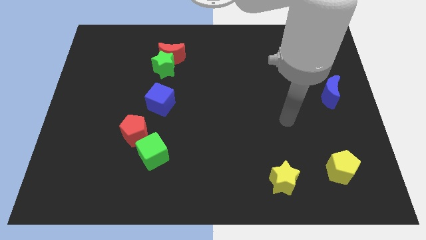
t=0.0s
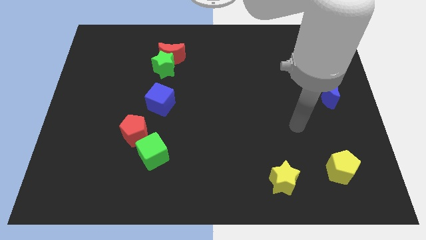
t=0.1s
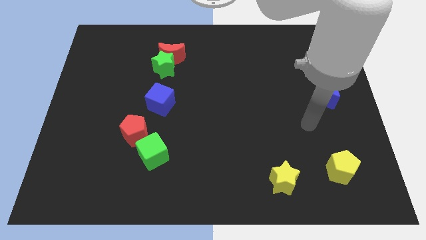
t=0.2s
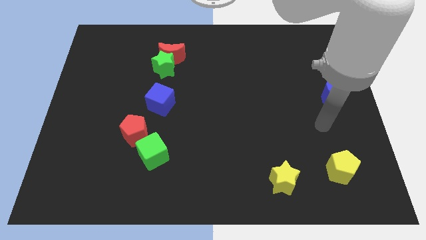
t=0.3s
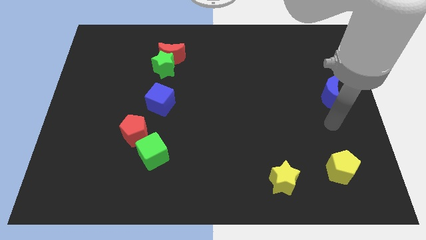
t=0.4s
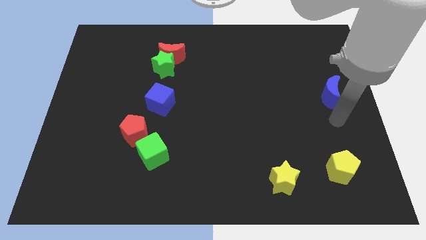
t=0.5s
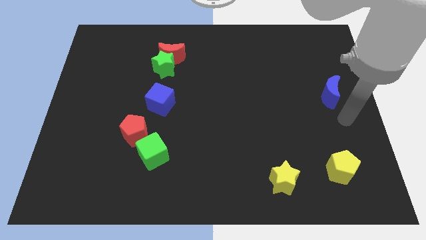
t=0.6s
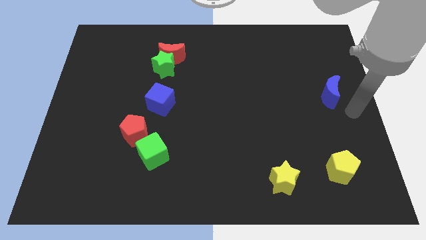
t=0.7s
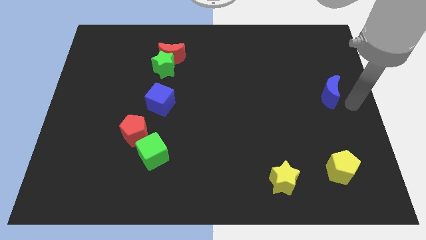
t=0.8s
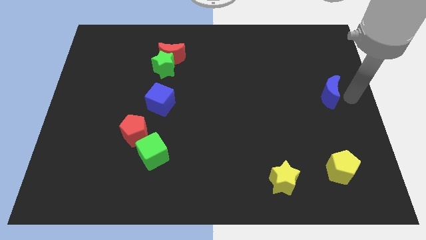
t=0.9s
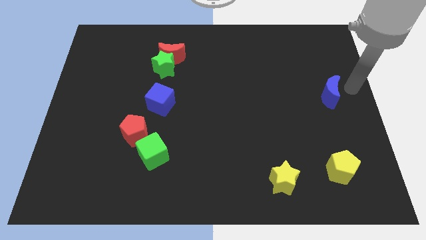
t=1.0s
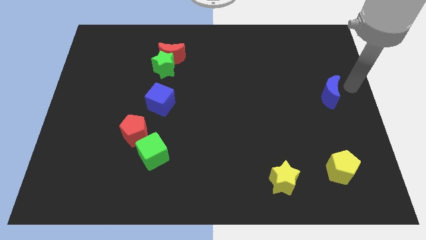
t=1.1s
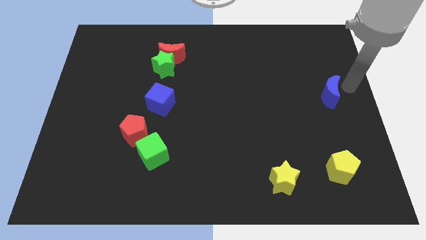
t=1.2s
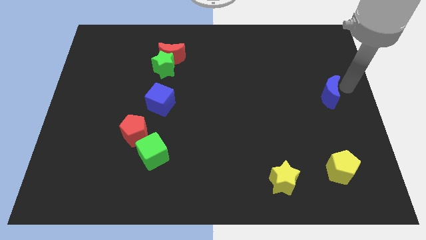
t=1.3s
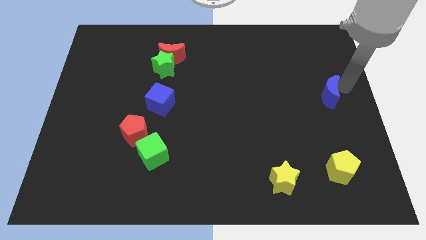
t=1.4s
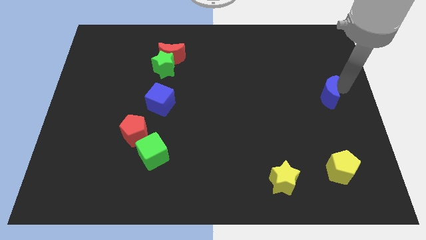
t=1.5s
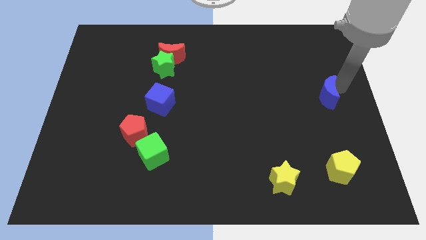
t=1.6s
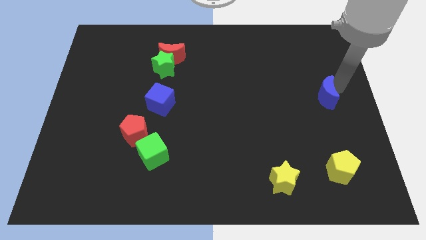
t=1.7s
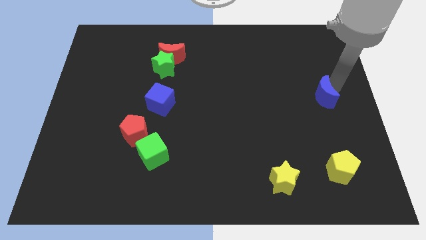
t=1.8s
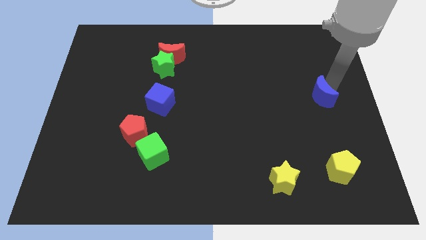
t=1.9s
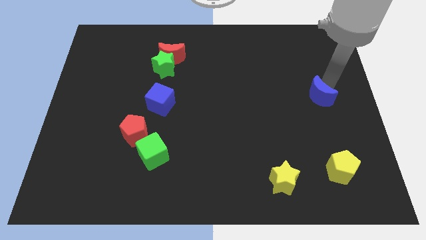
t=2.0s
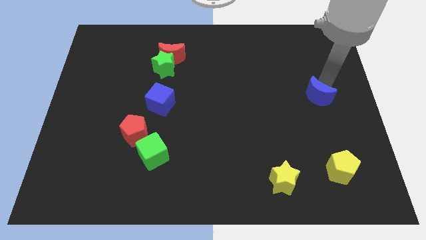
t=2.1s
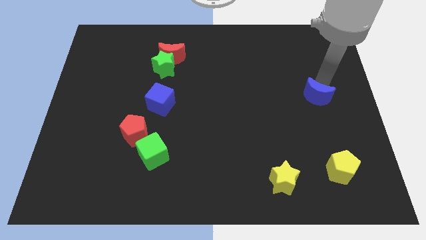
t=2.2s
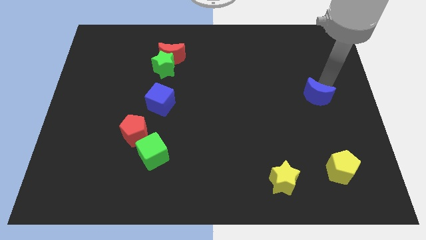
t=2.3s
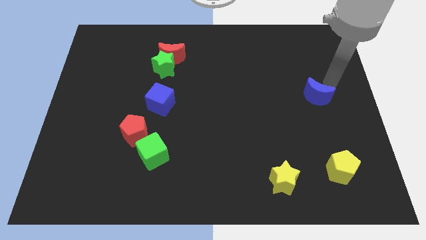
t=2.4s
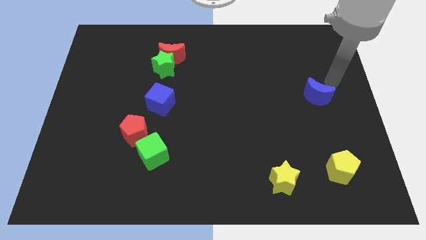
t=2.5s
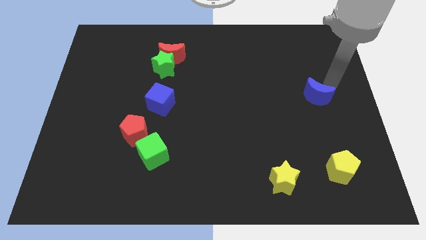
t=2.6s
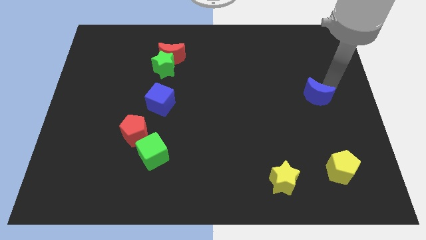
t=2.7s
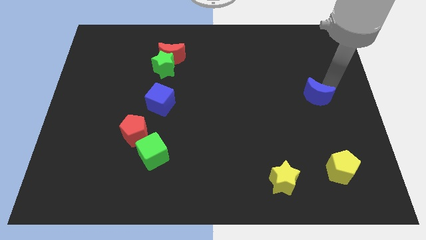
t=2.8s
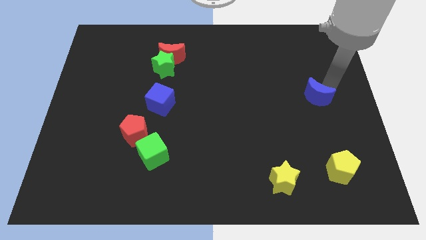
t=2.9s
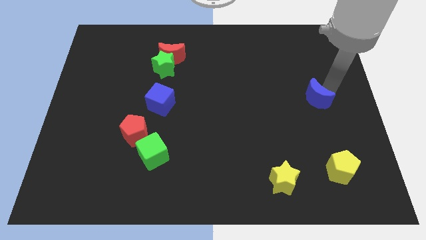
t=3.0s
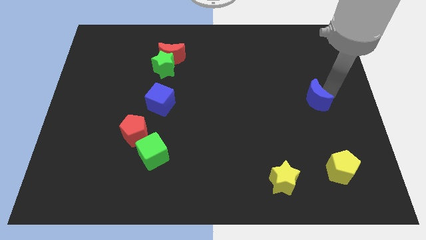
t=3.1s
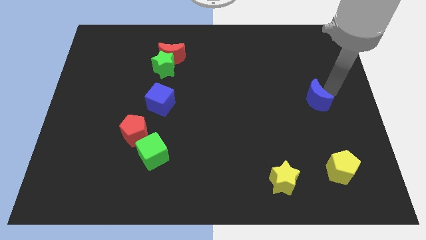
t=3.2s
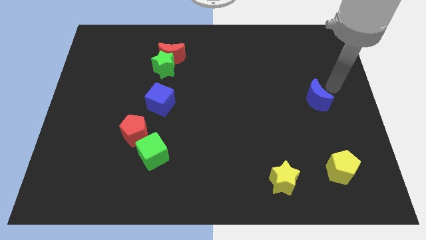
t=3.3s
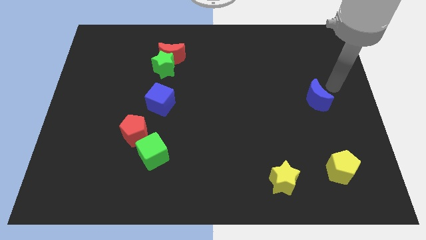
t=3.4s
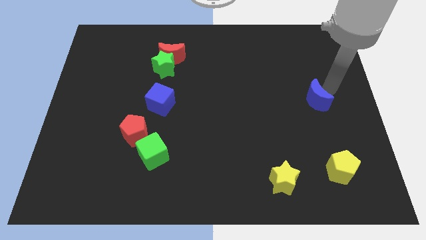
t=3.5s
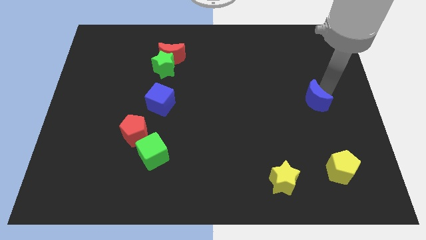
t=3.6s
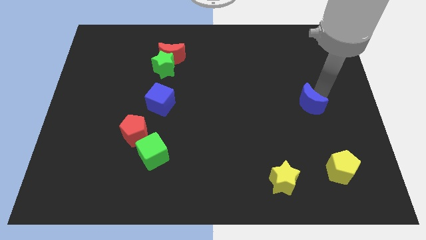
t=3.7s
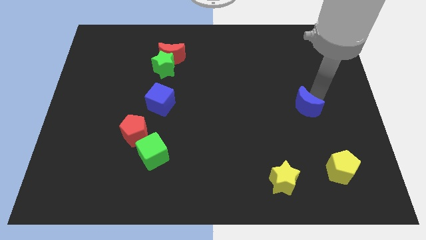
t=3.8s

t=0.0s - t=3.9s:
slightly move the blue moon diagonally down and to the left

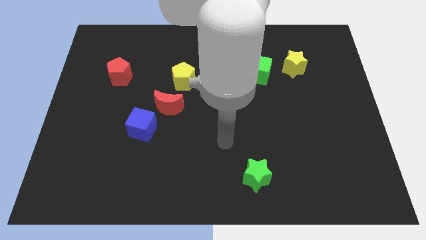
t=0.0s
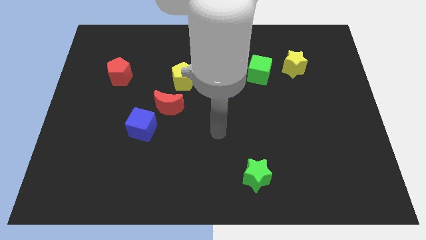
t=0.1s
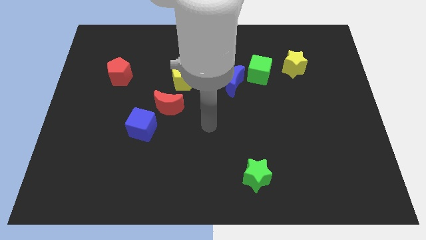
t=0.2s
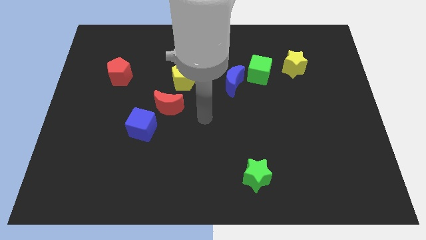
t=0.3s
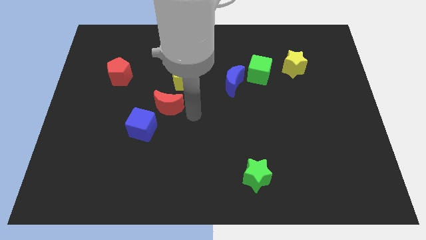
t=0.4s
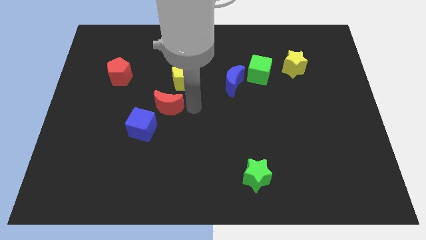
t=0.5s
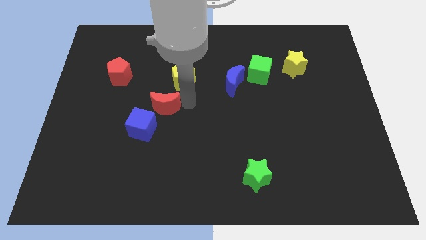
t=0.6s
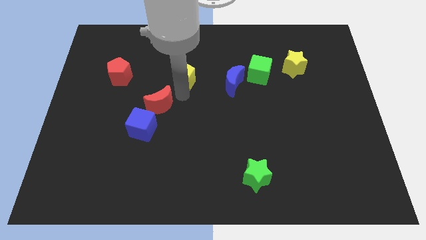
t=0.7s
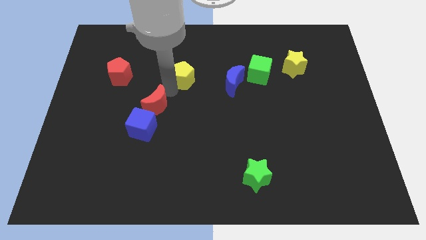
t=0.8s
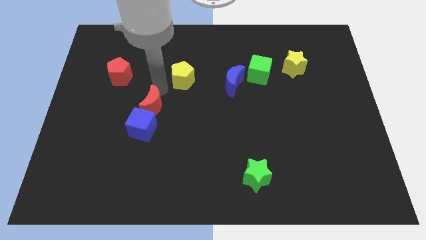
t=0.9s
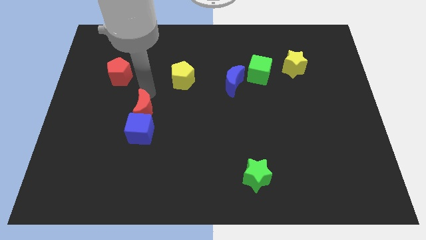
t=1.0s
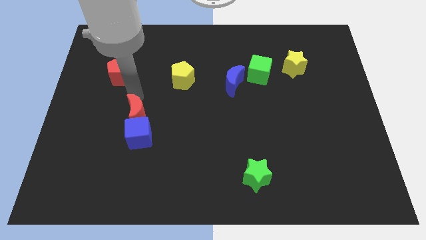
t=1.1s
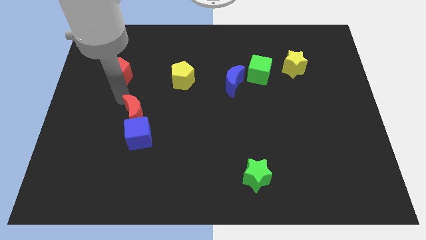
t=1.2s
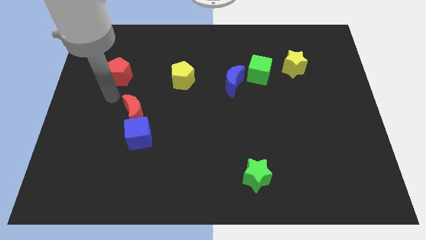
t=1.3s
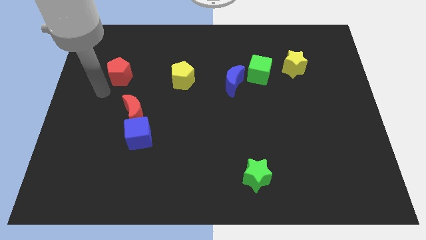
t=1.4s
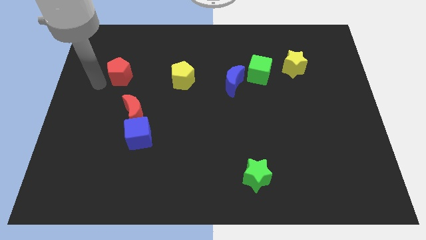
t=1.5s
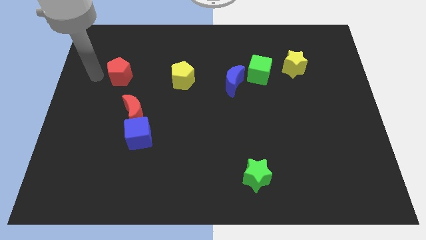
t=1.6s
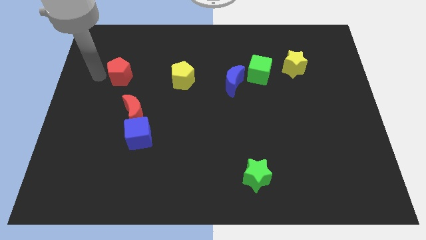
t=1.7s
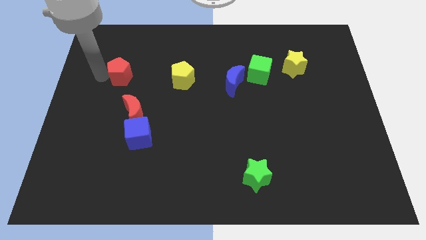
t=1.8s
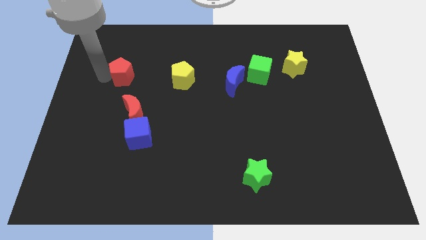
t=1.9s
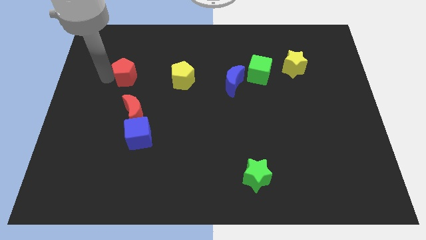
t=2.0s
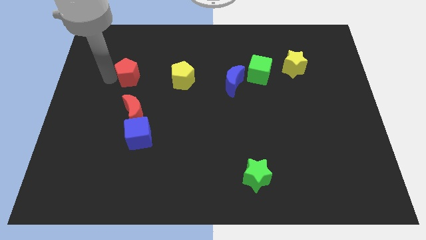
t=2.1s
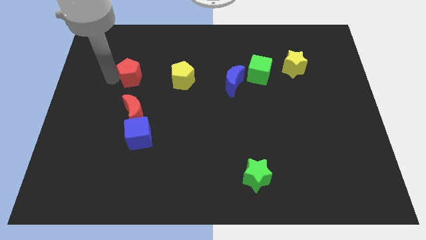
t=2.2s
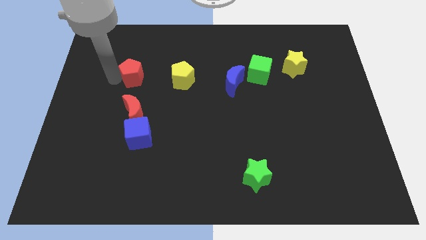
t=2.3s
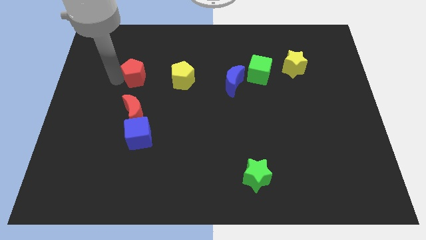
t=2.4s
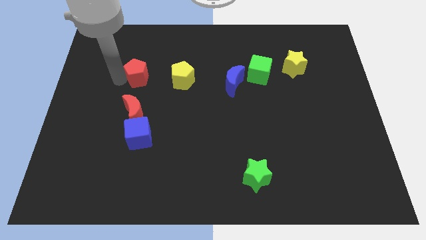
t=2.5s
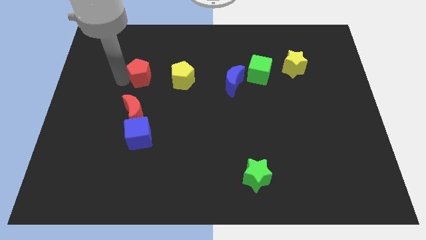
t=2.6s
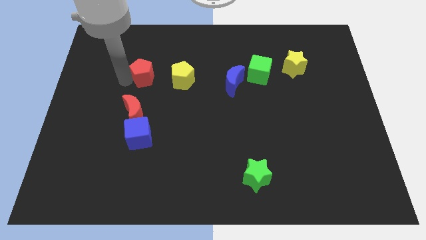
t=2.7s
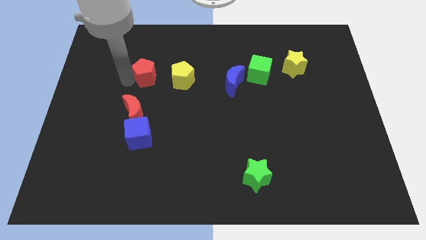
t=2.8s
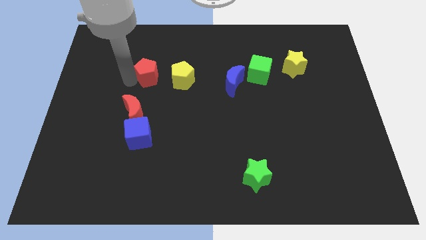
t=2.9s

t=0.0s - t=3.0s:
slide the red pentagon somewhat right

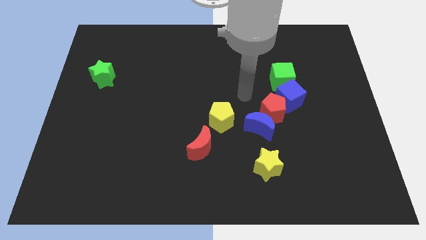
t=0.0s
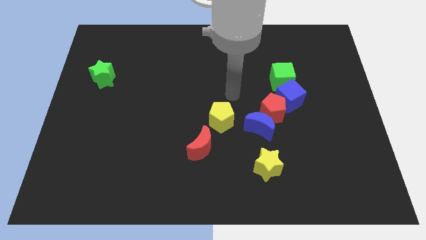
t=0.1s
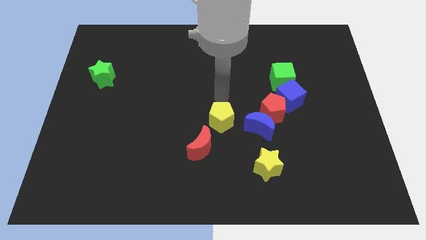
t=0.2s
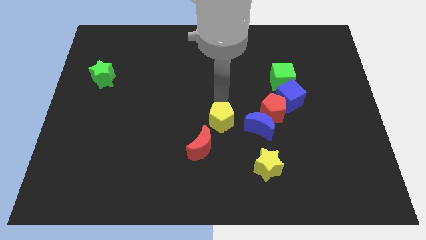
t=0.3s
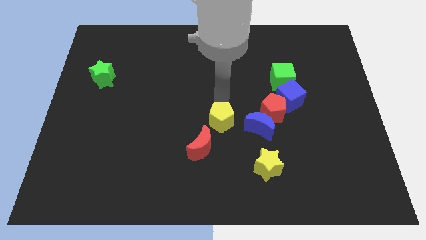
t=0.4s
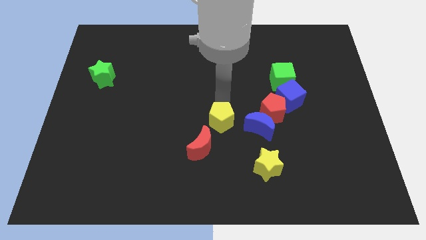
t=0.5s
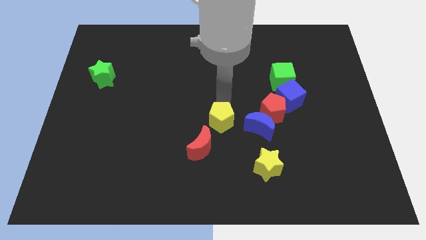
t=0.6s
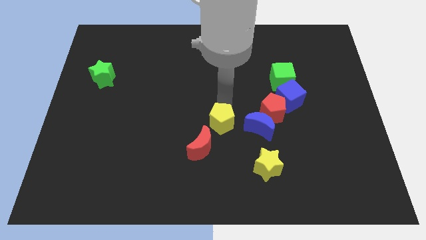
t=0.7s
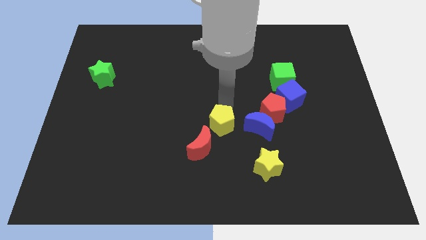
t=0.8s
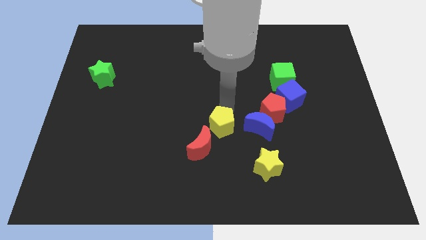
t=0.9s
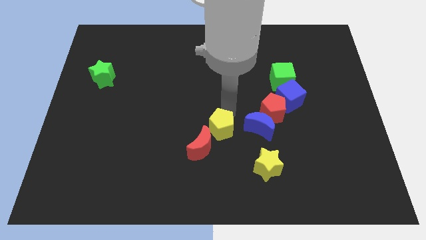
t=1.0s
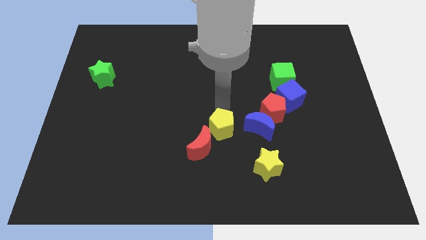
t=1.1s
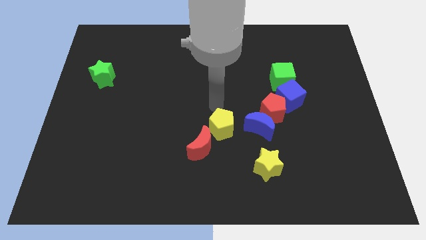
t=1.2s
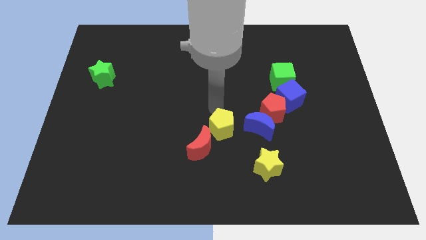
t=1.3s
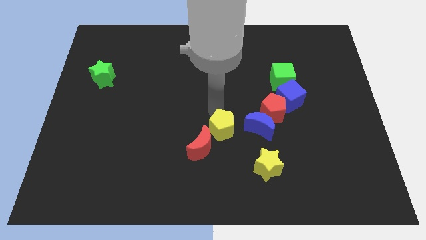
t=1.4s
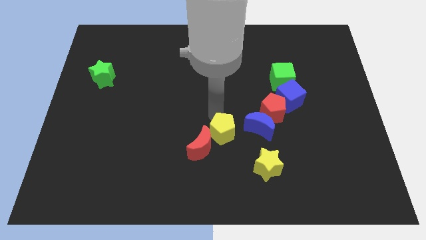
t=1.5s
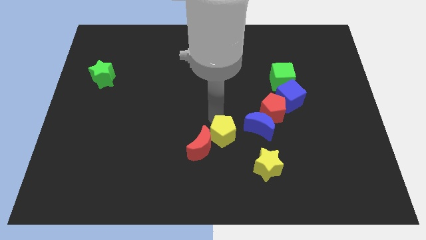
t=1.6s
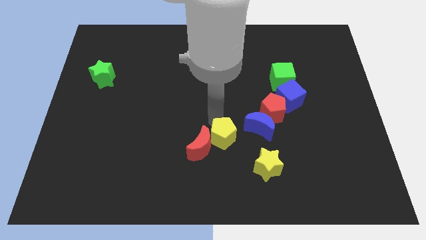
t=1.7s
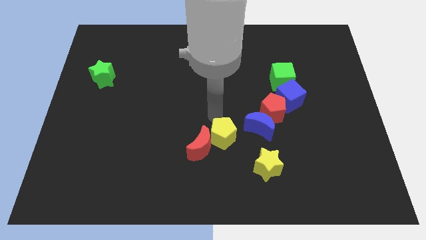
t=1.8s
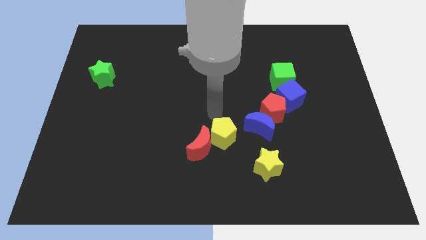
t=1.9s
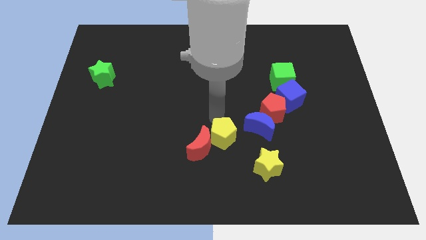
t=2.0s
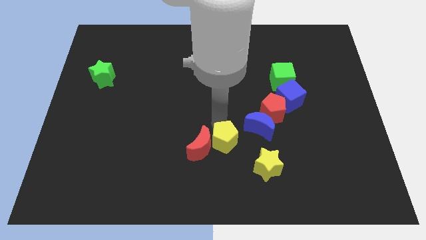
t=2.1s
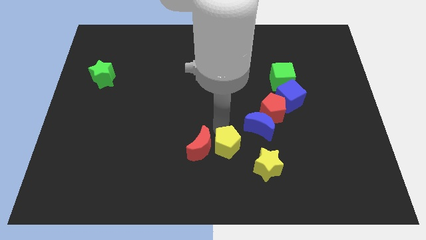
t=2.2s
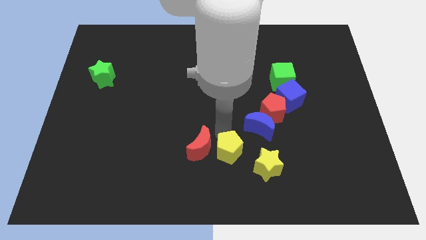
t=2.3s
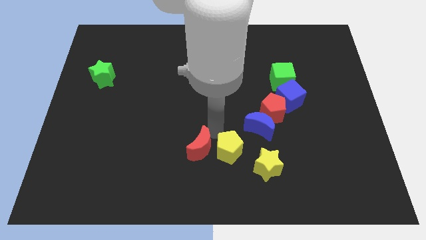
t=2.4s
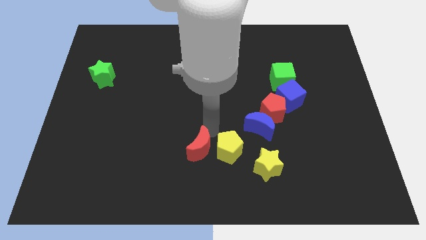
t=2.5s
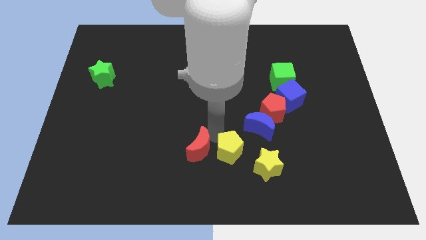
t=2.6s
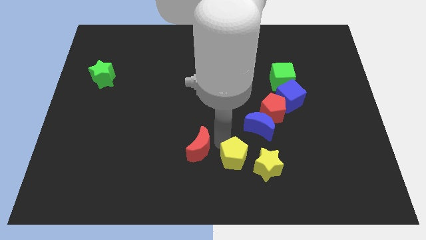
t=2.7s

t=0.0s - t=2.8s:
push the yellow pentagon downwards and to the right diagonally somewhat
